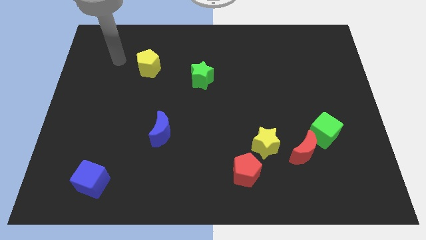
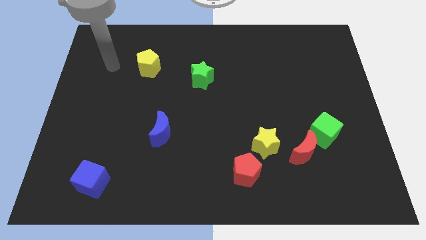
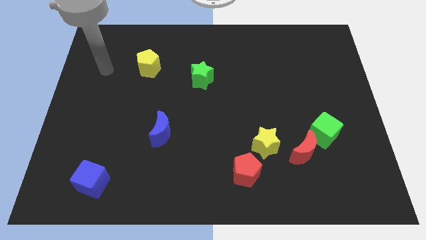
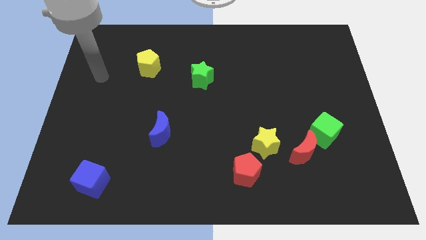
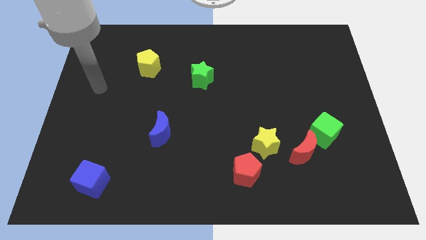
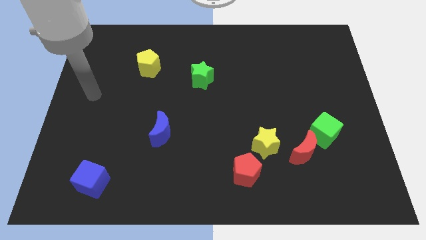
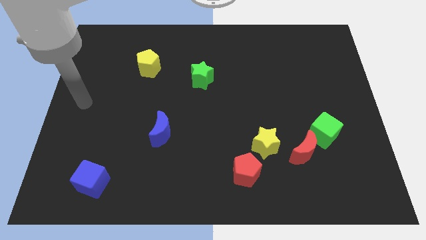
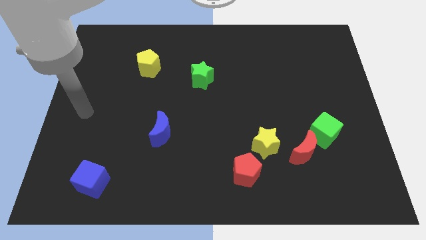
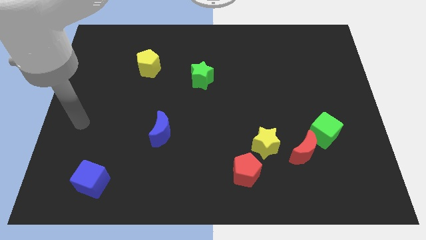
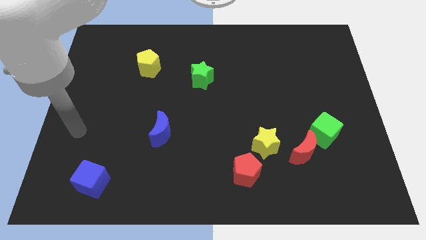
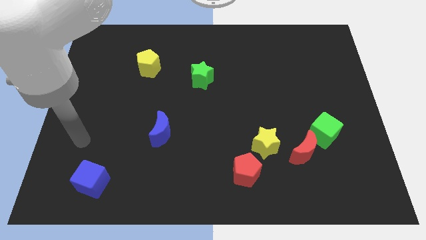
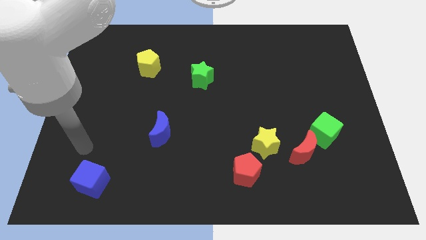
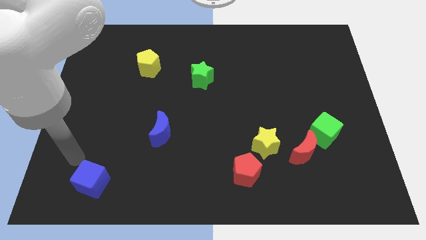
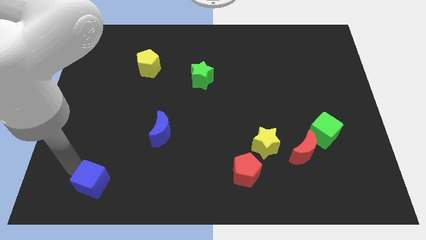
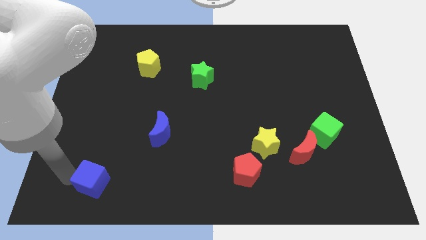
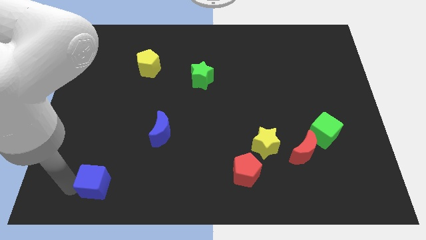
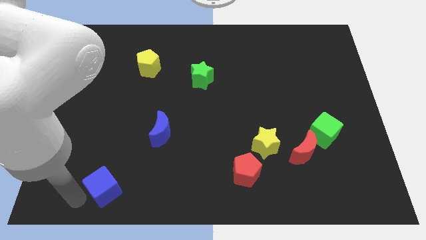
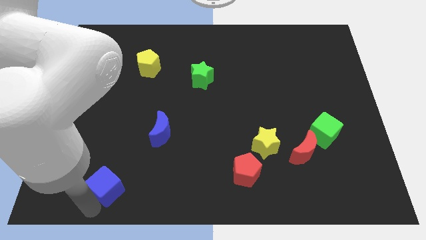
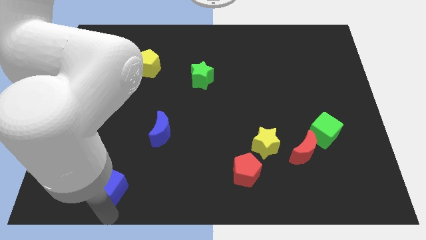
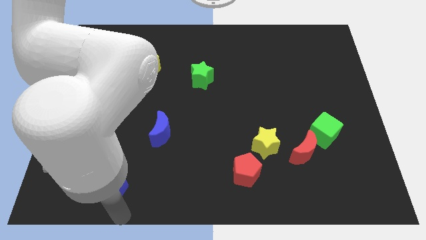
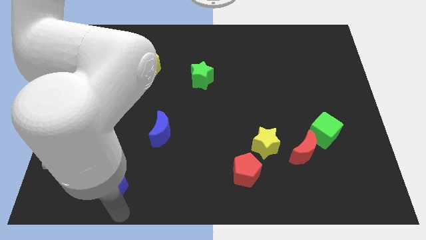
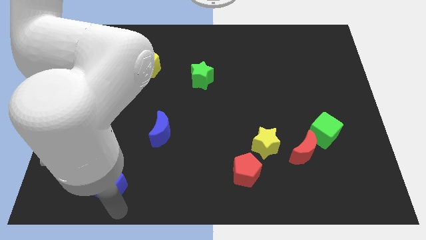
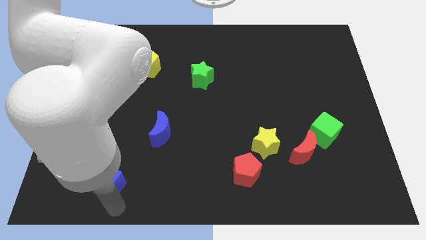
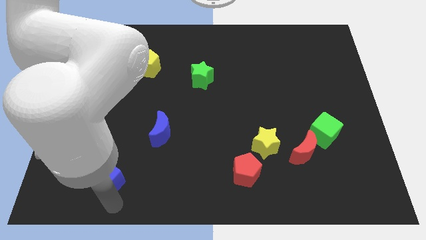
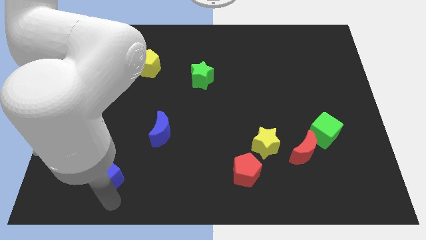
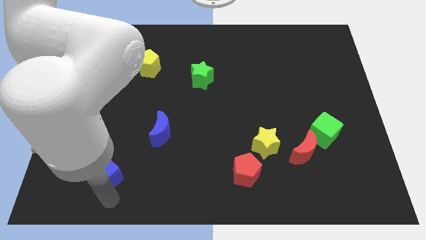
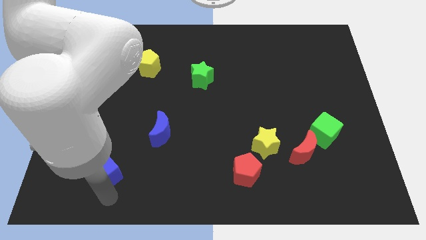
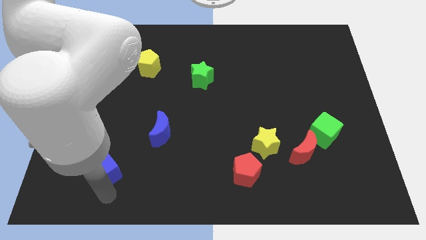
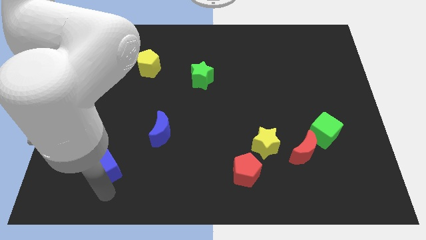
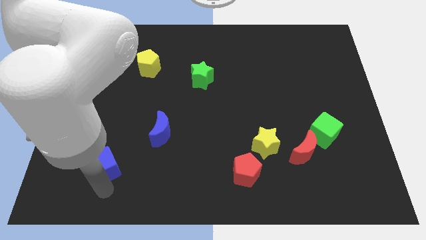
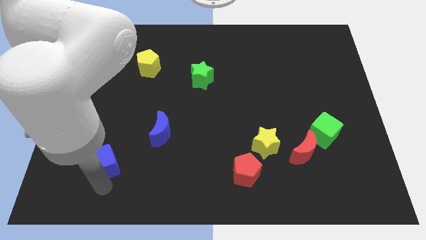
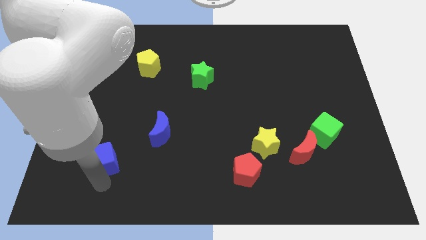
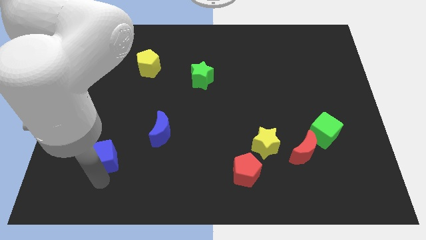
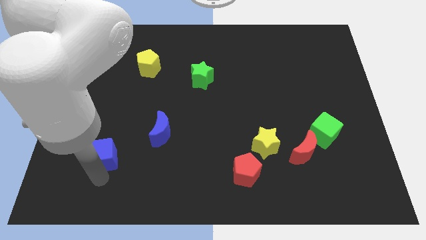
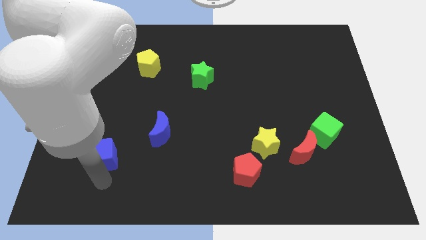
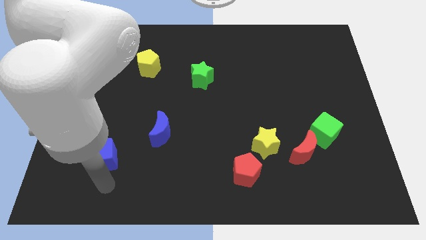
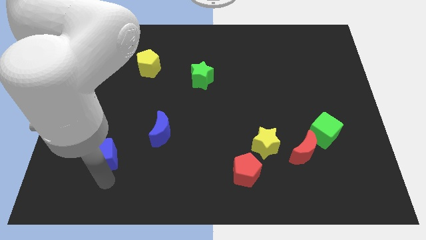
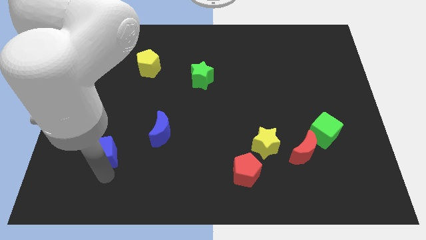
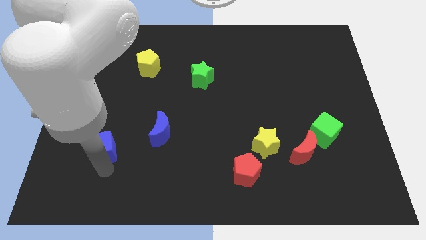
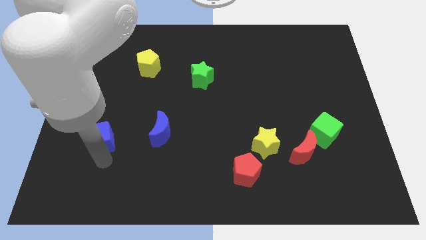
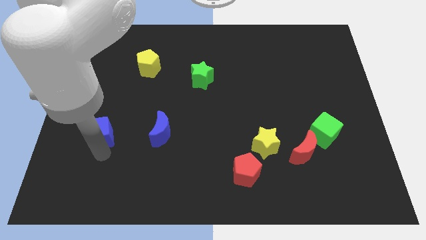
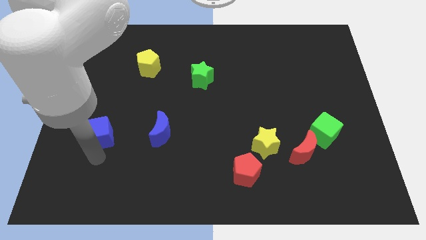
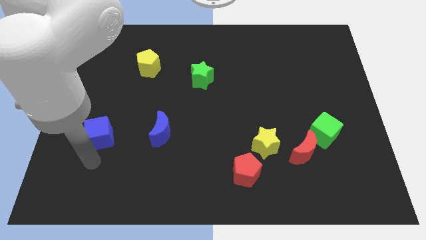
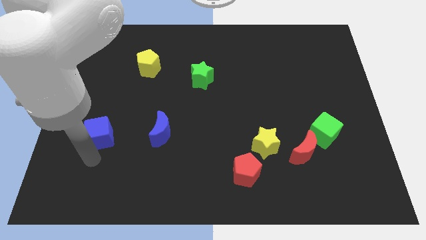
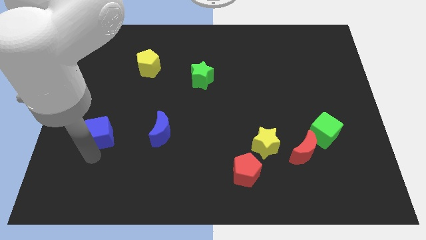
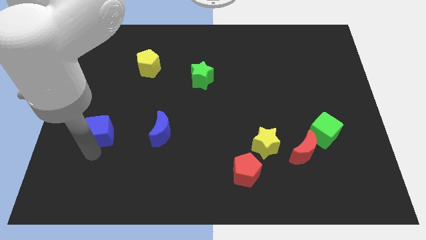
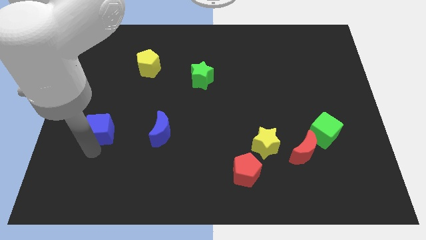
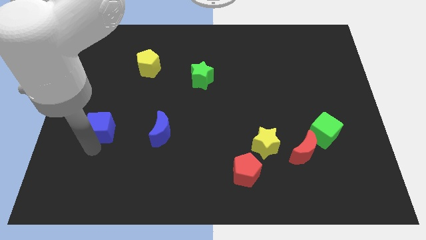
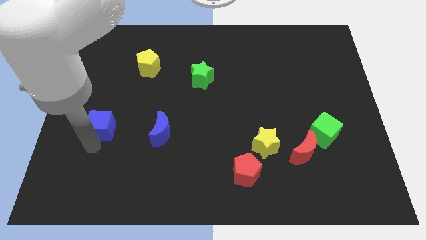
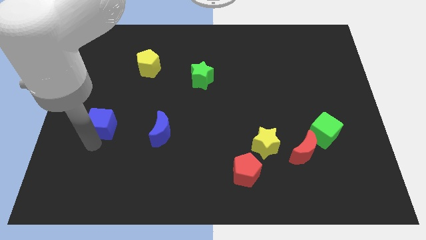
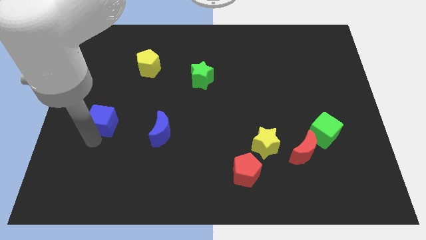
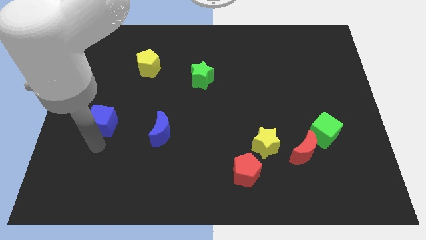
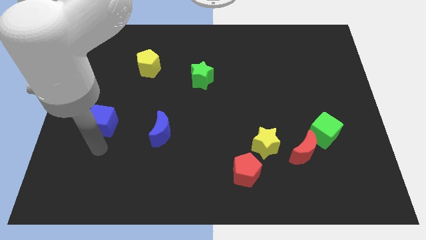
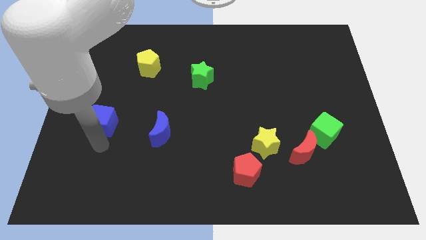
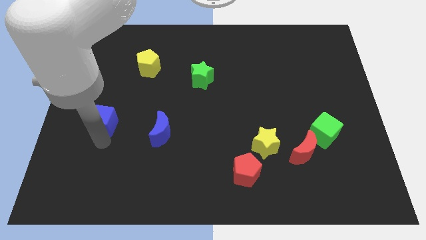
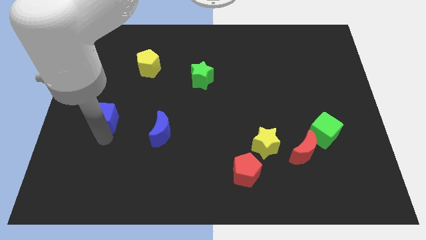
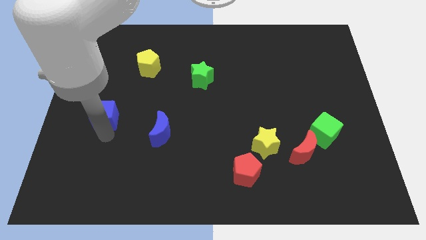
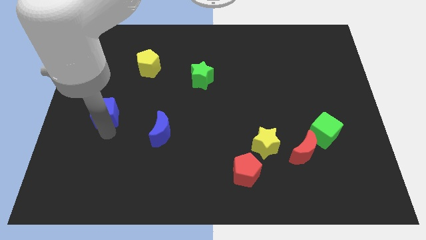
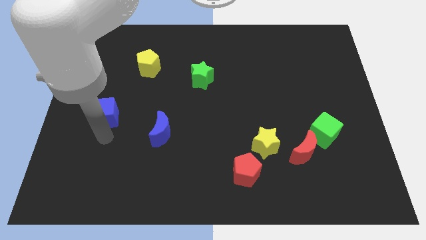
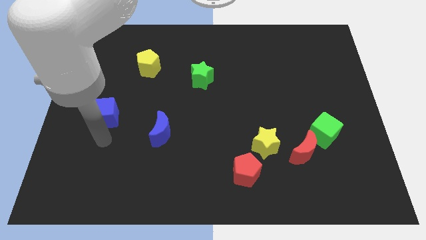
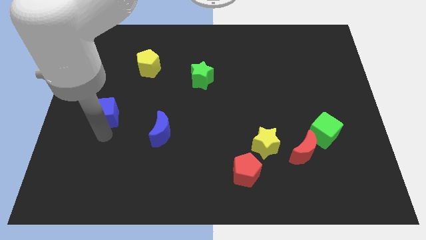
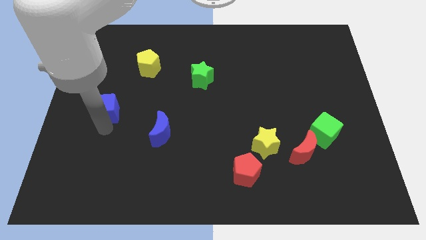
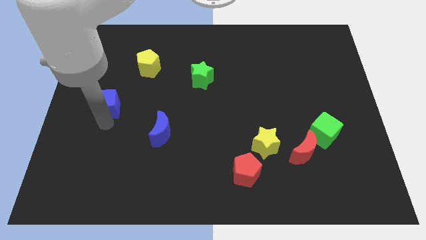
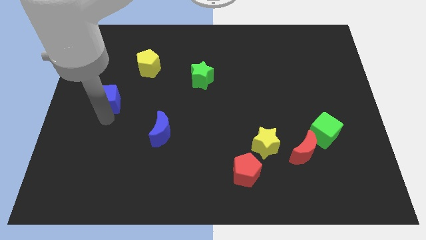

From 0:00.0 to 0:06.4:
push the blue cube up

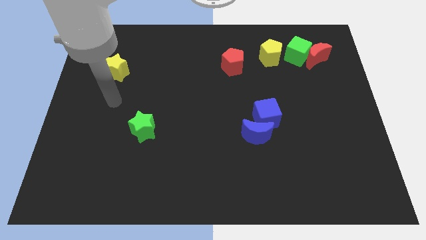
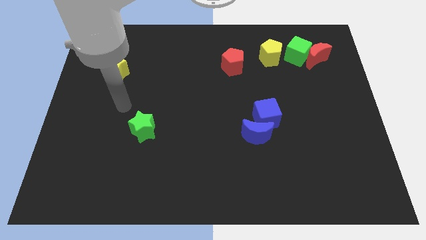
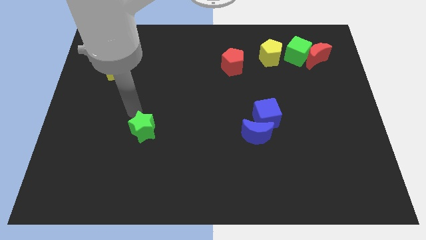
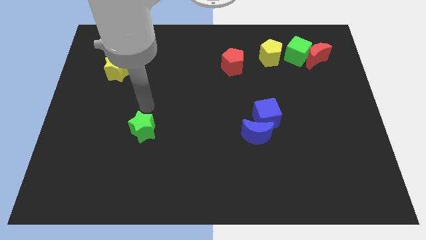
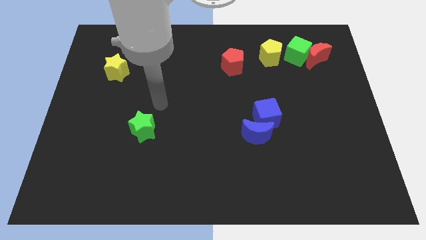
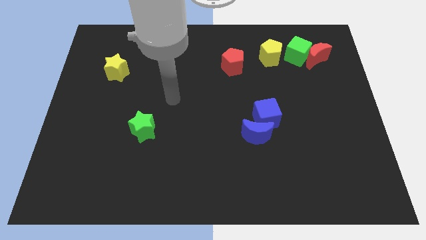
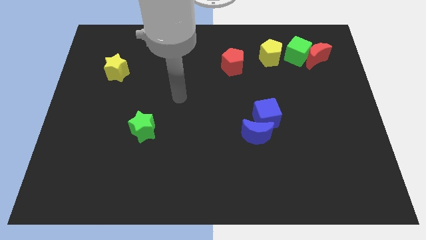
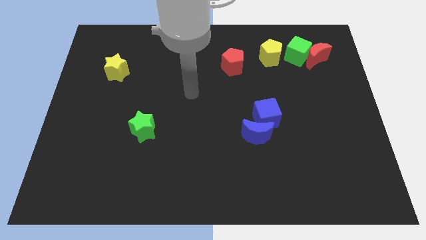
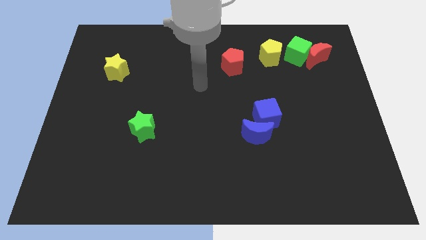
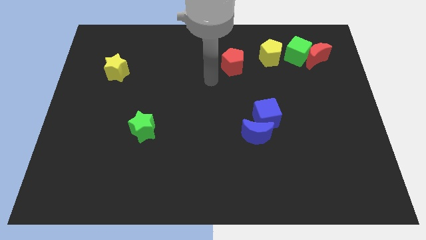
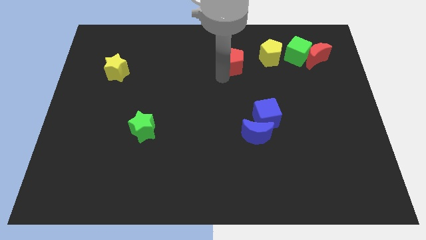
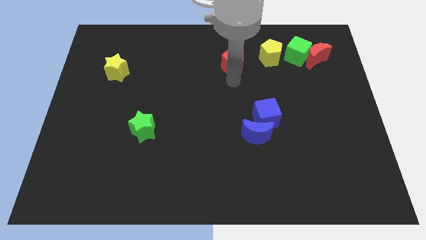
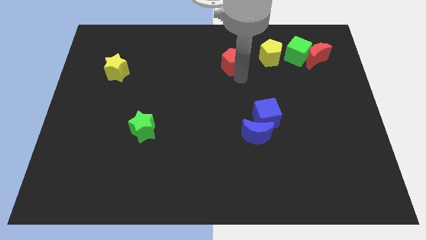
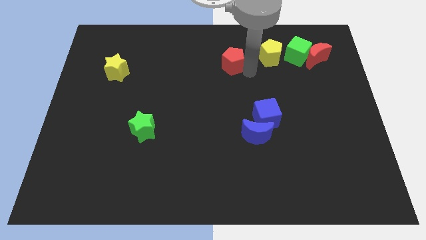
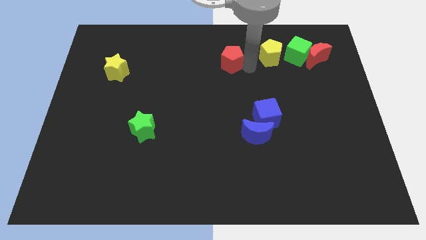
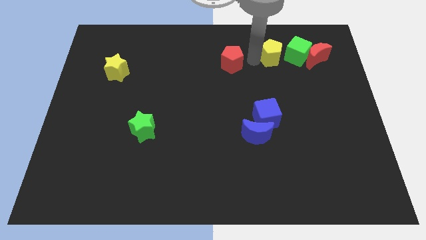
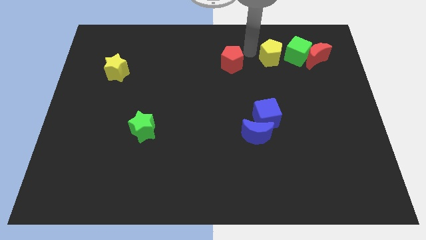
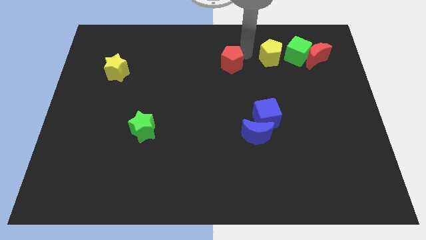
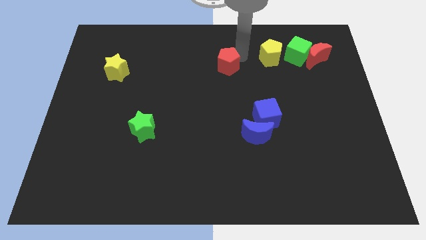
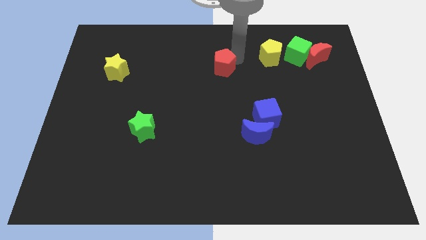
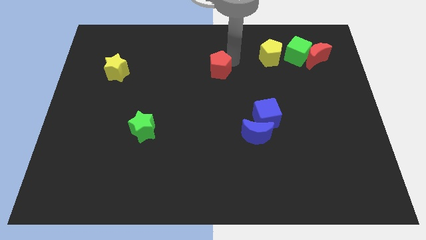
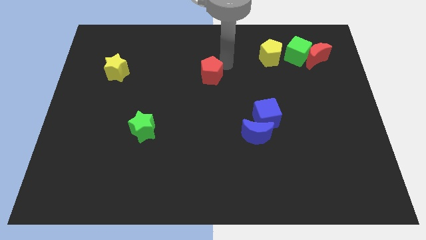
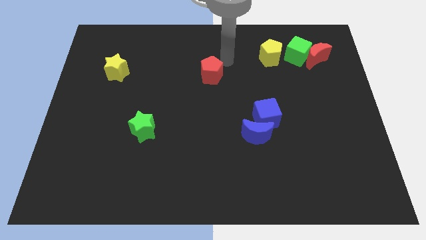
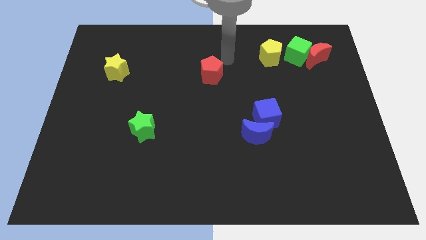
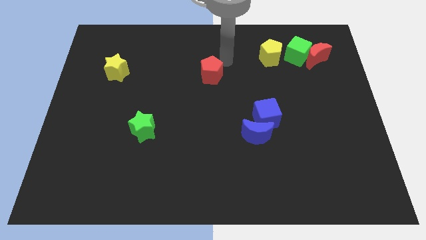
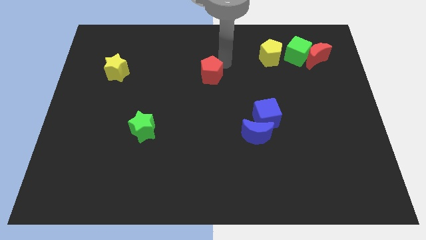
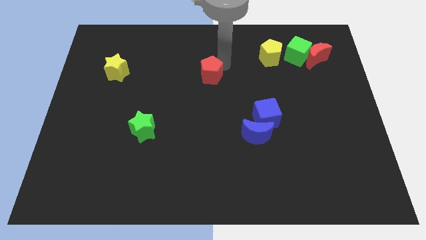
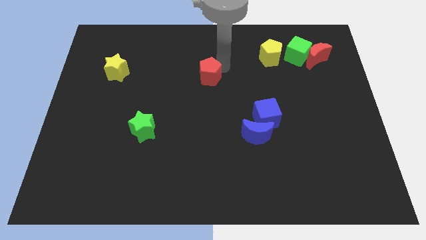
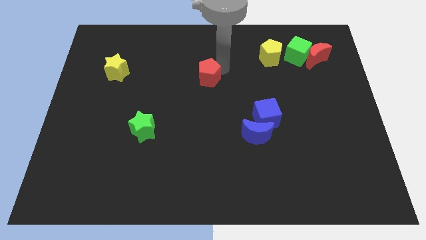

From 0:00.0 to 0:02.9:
push the red pentagon downwards and then left somewhat
